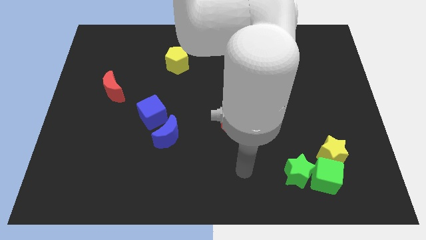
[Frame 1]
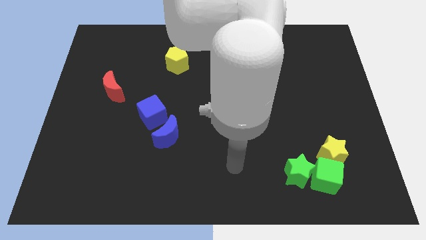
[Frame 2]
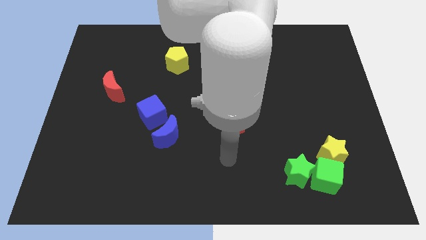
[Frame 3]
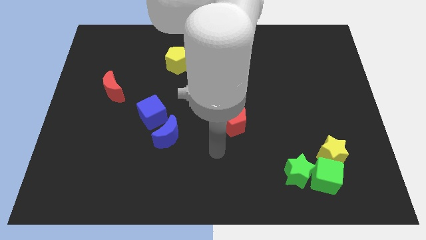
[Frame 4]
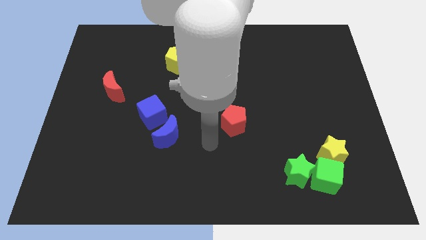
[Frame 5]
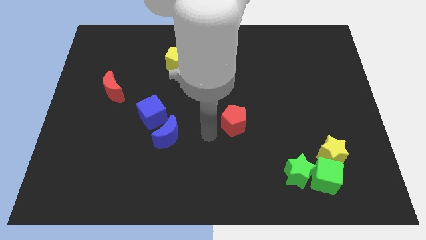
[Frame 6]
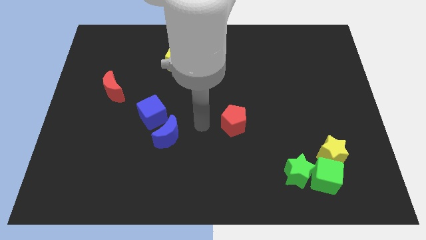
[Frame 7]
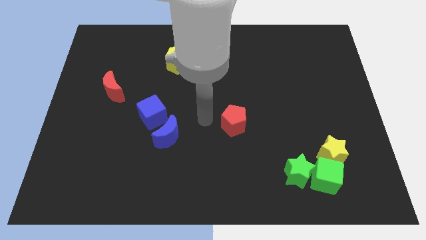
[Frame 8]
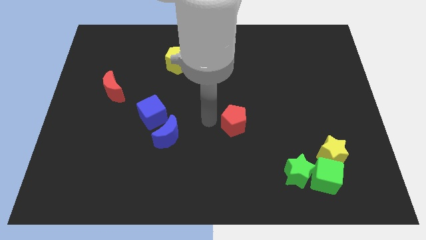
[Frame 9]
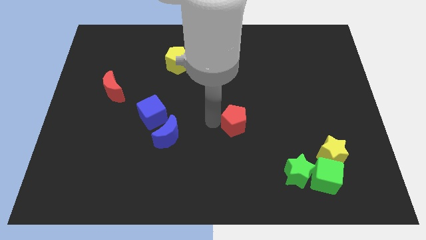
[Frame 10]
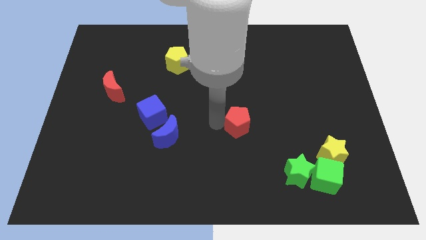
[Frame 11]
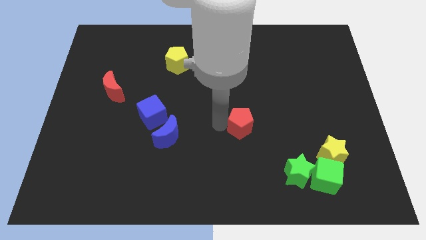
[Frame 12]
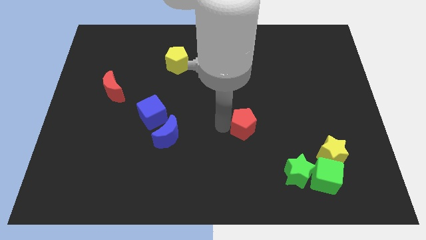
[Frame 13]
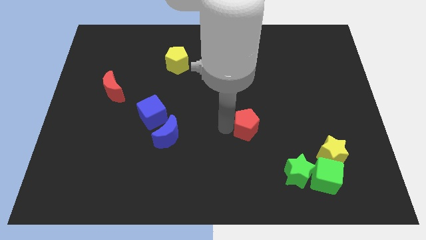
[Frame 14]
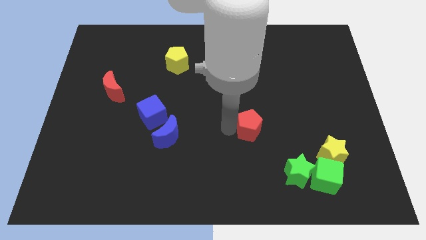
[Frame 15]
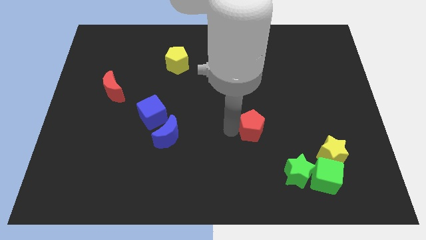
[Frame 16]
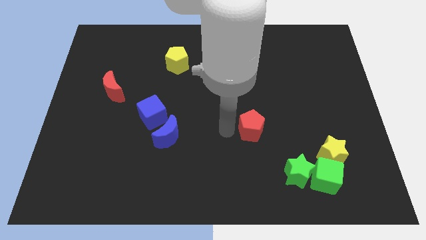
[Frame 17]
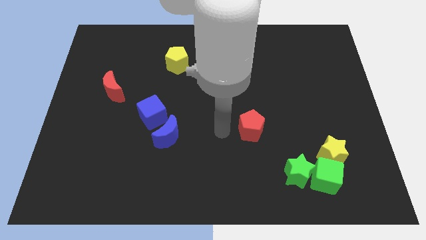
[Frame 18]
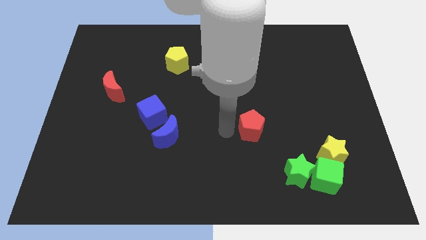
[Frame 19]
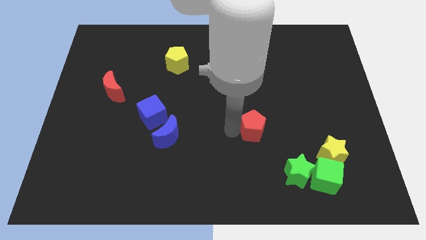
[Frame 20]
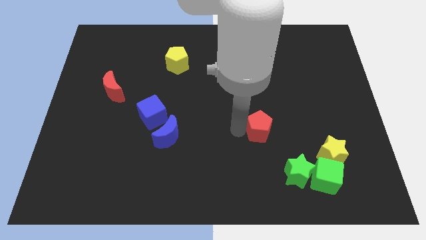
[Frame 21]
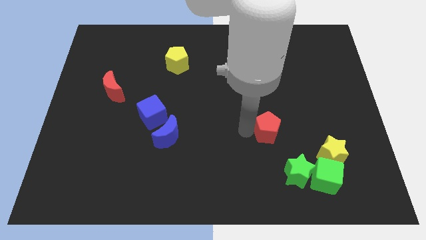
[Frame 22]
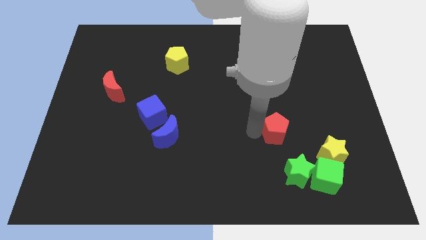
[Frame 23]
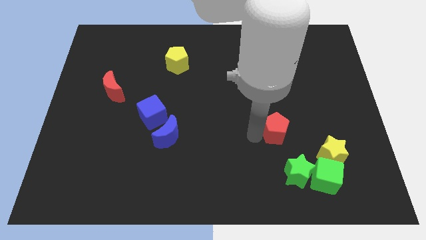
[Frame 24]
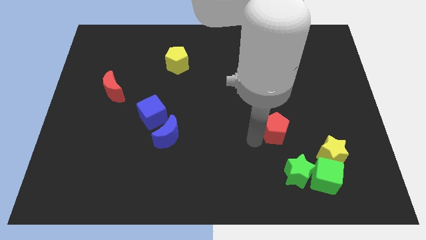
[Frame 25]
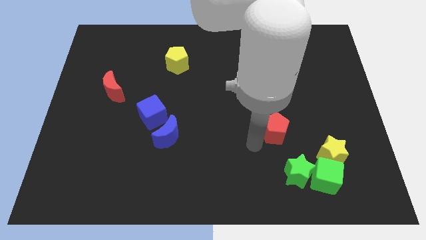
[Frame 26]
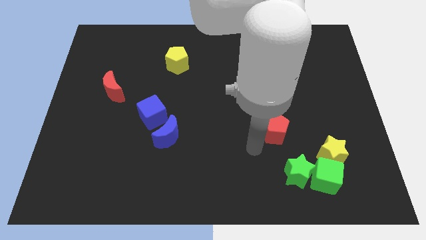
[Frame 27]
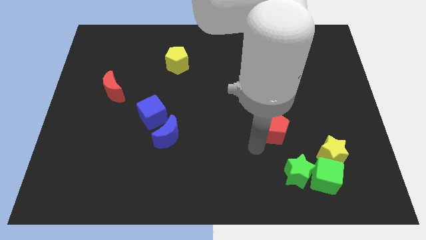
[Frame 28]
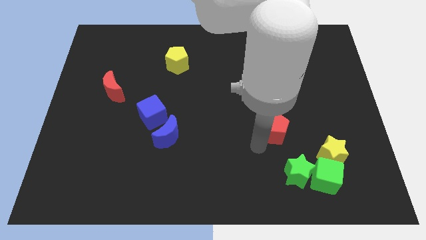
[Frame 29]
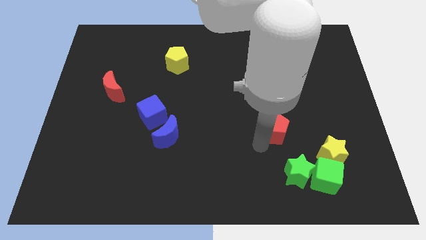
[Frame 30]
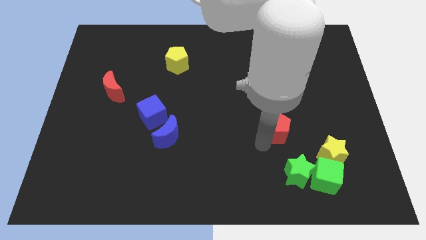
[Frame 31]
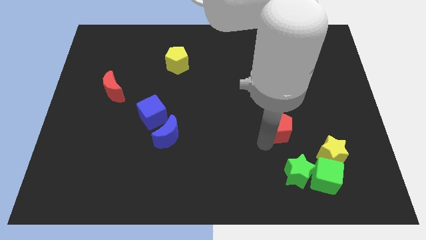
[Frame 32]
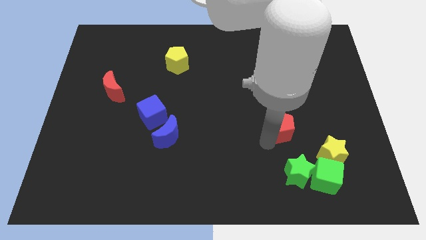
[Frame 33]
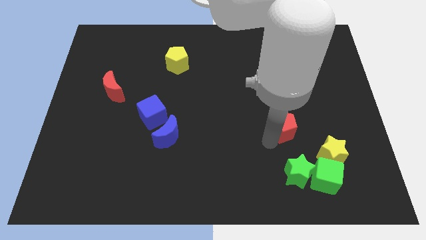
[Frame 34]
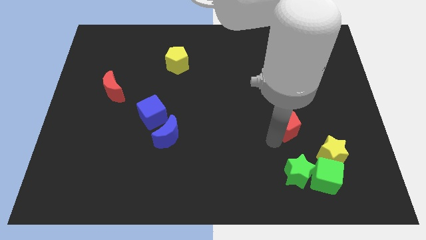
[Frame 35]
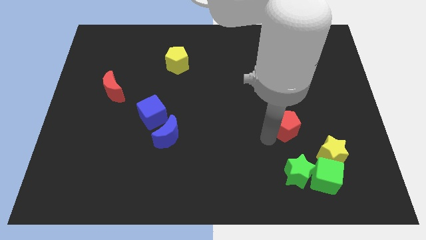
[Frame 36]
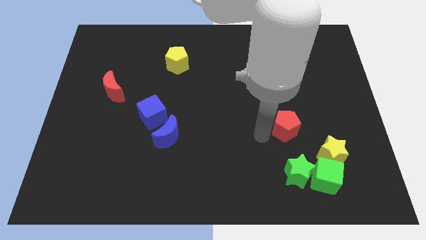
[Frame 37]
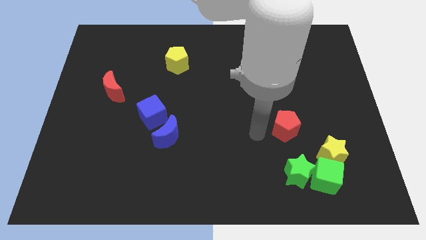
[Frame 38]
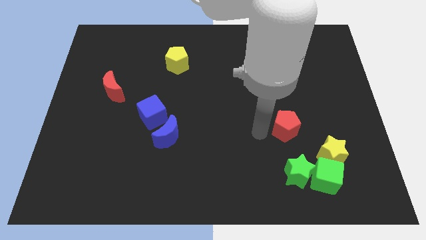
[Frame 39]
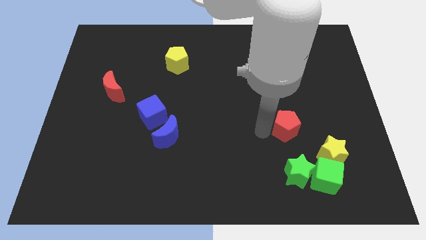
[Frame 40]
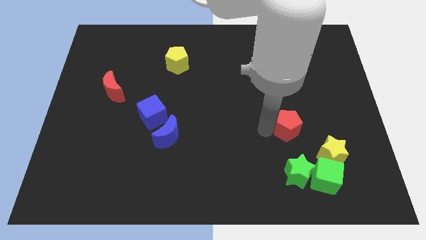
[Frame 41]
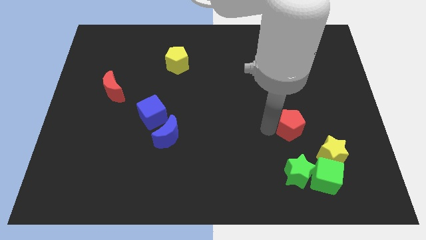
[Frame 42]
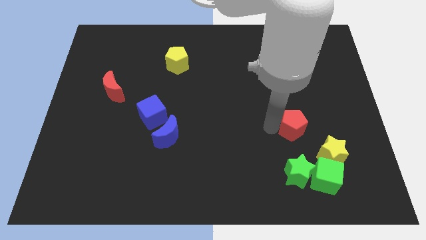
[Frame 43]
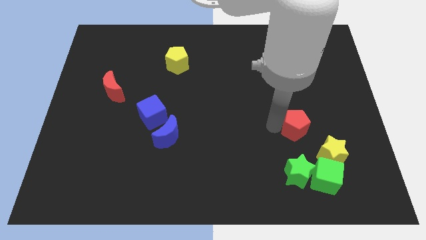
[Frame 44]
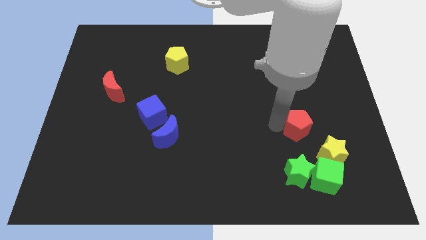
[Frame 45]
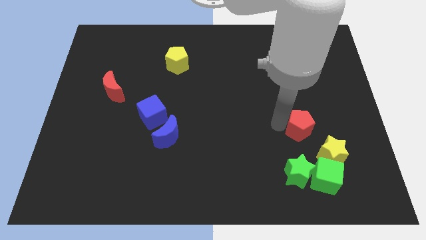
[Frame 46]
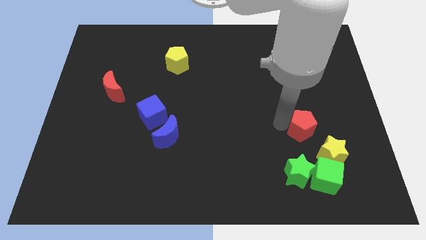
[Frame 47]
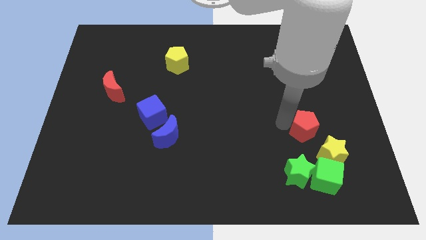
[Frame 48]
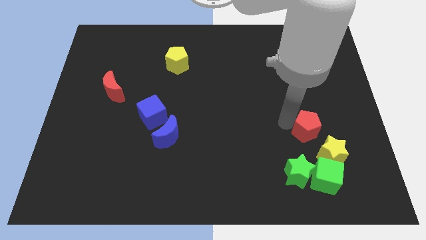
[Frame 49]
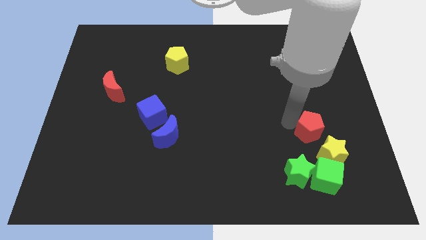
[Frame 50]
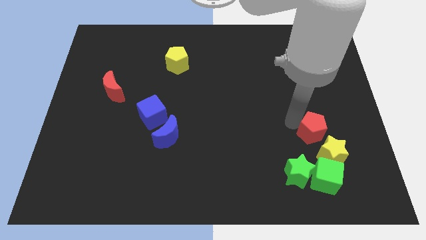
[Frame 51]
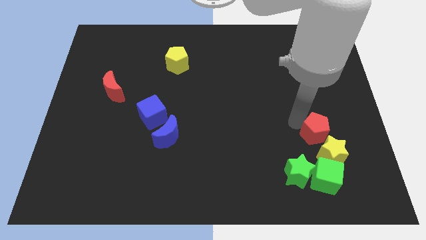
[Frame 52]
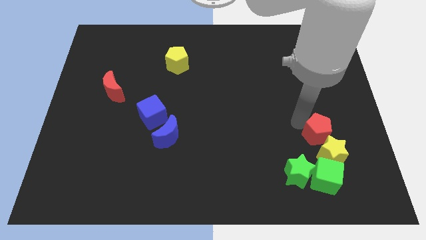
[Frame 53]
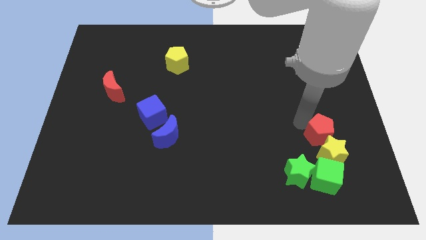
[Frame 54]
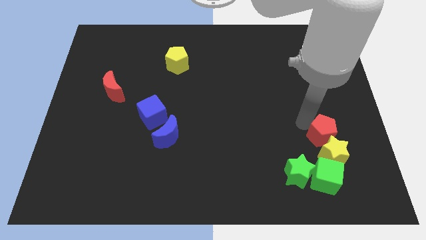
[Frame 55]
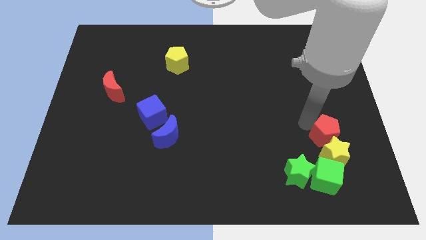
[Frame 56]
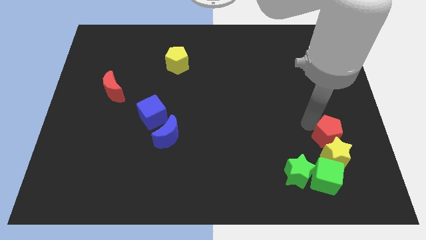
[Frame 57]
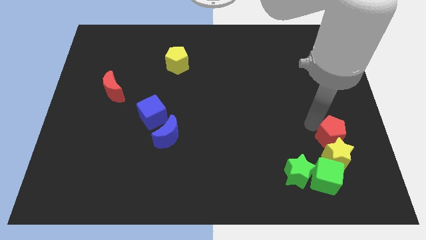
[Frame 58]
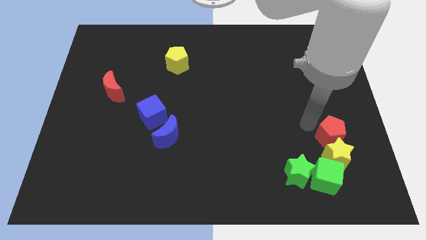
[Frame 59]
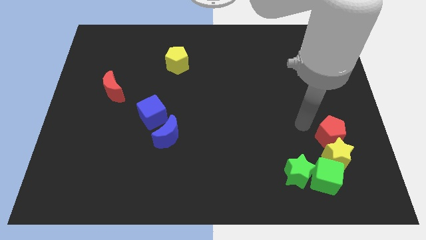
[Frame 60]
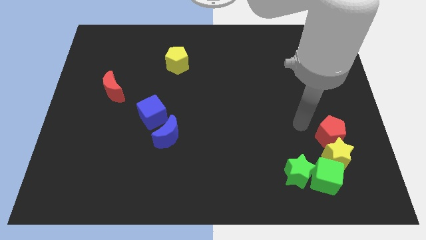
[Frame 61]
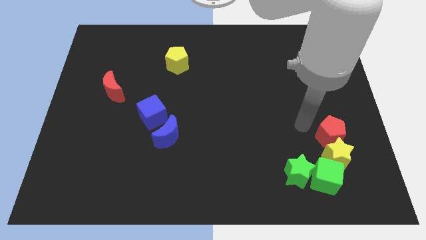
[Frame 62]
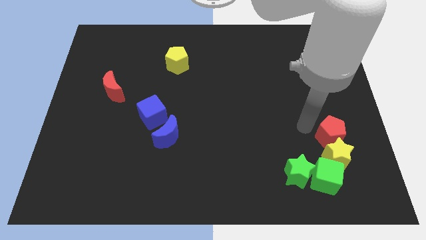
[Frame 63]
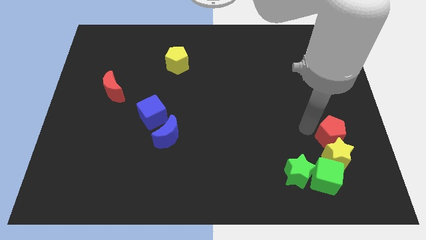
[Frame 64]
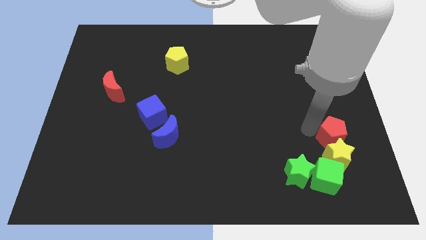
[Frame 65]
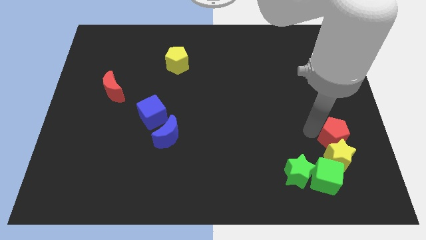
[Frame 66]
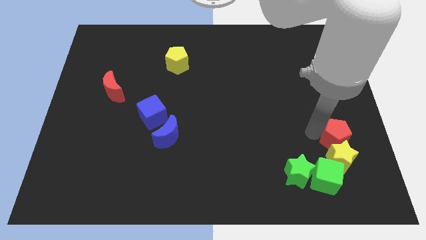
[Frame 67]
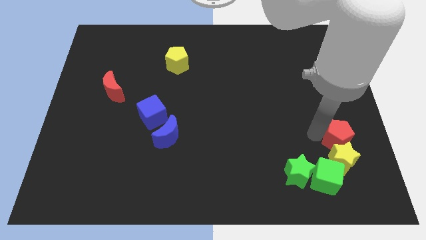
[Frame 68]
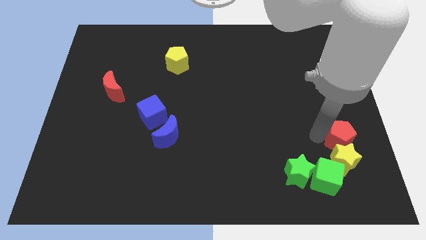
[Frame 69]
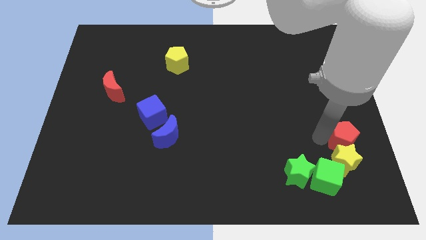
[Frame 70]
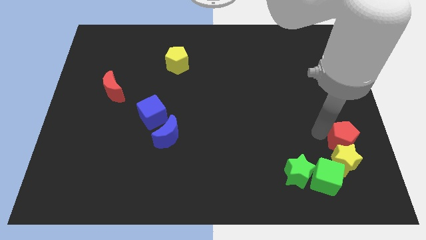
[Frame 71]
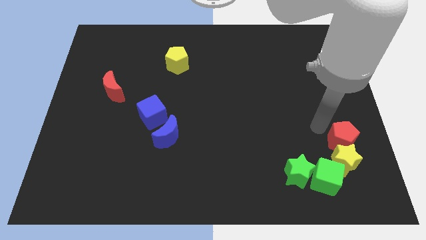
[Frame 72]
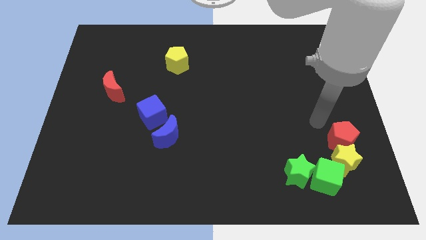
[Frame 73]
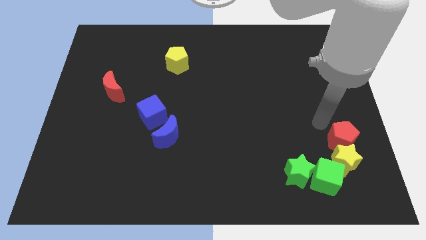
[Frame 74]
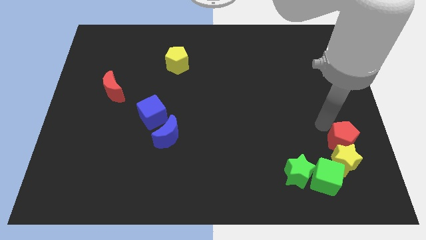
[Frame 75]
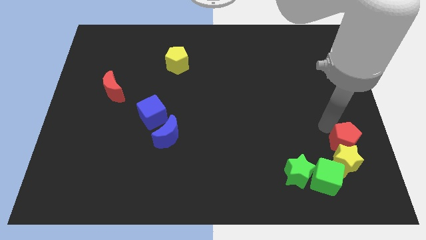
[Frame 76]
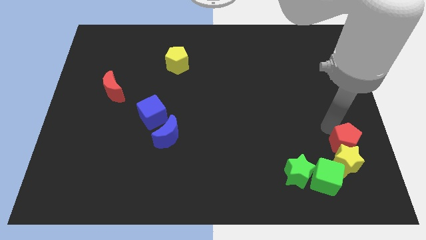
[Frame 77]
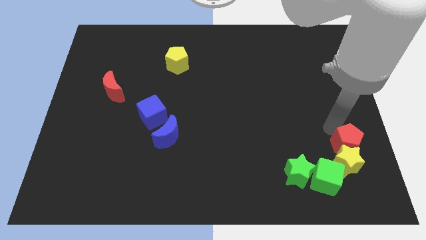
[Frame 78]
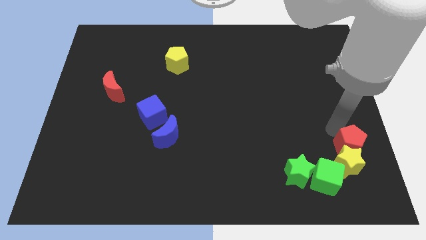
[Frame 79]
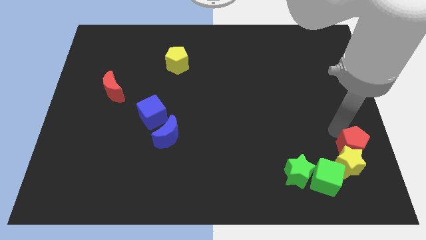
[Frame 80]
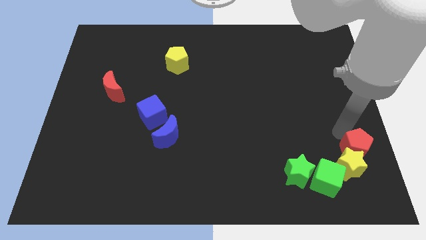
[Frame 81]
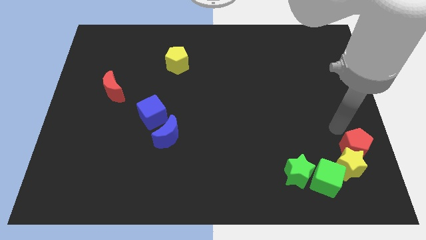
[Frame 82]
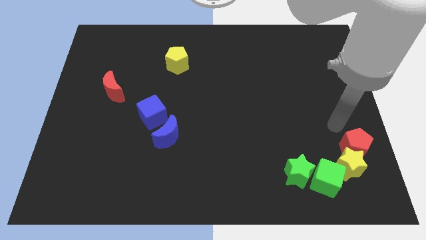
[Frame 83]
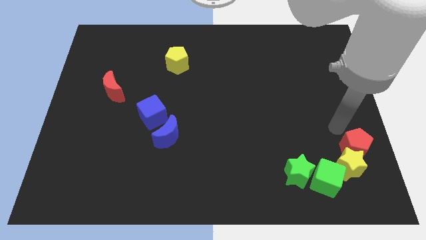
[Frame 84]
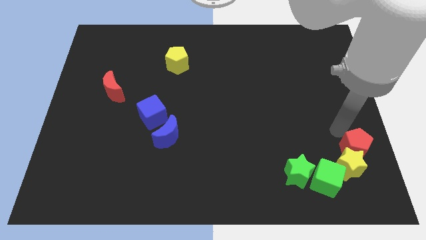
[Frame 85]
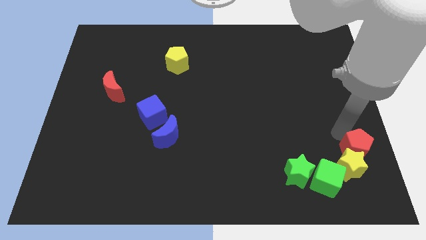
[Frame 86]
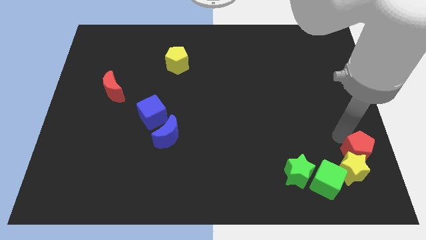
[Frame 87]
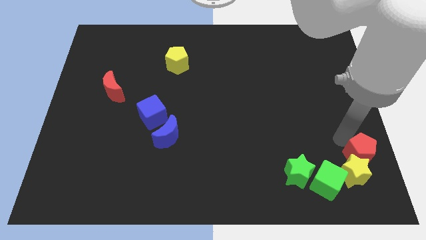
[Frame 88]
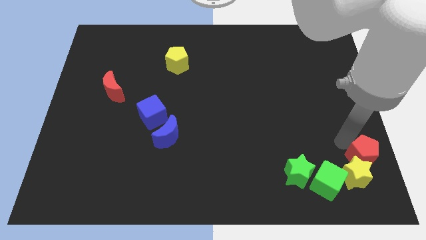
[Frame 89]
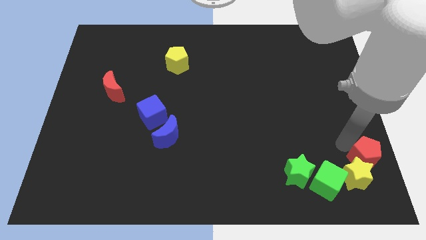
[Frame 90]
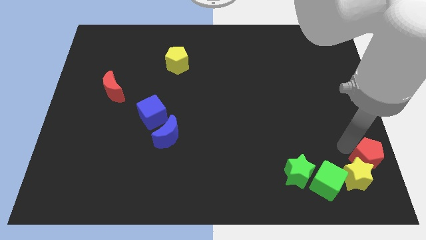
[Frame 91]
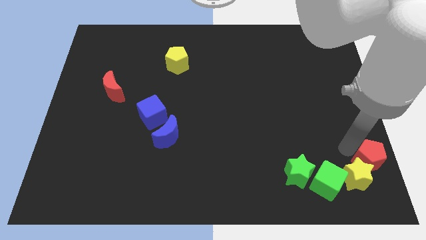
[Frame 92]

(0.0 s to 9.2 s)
put the red pentagon to the bottom right corner
